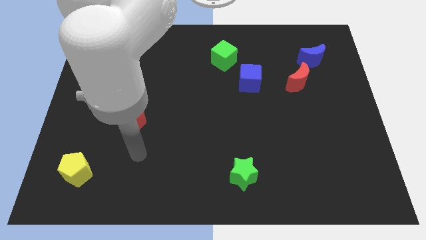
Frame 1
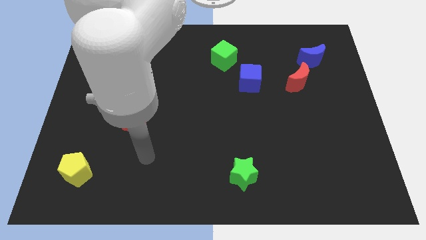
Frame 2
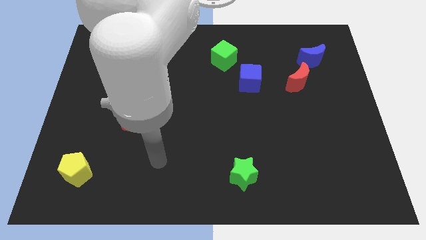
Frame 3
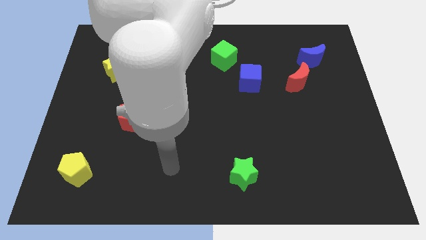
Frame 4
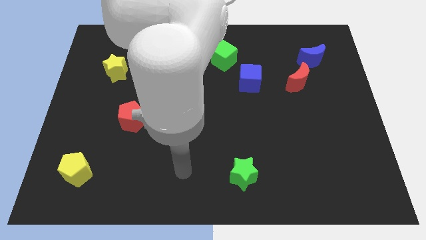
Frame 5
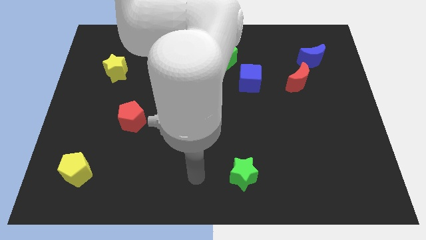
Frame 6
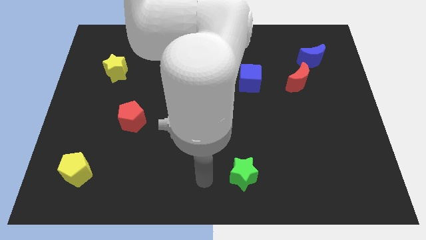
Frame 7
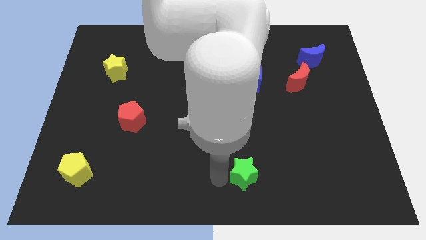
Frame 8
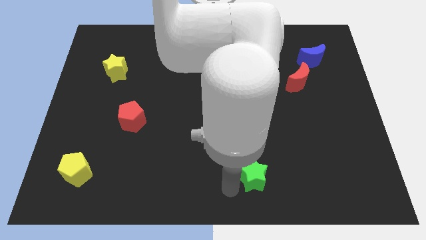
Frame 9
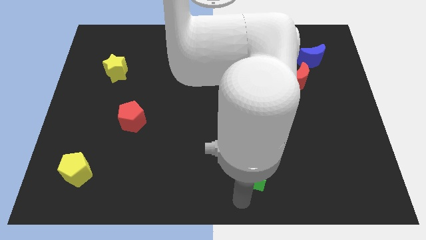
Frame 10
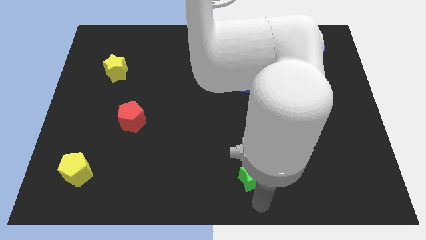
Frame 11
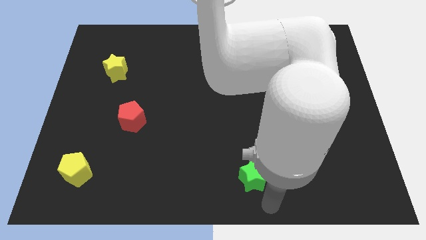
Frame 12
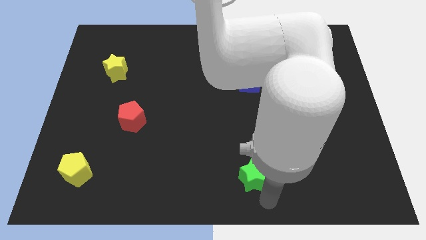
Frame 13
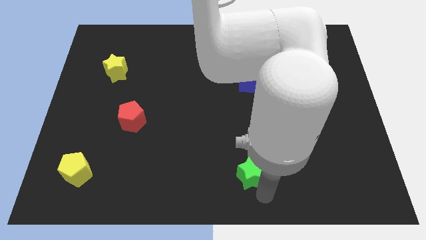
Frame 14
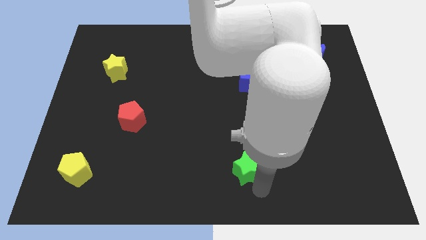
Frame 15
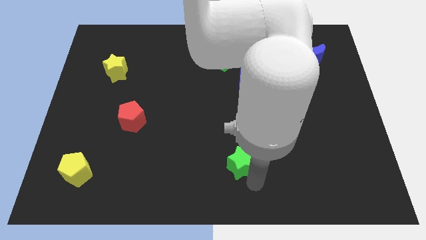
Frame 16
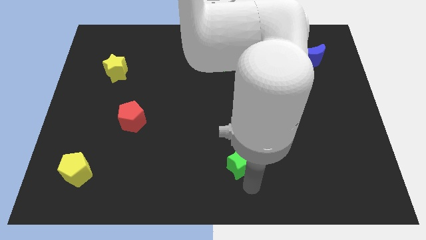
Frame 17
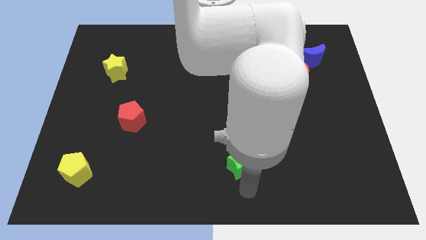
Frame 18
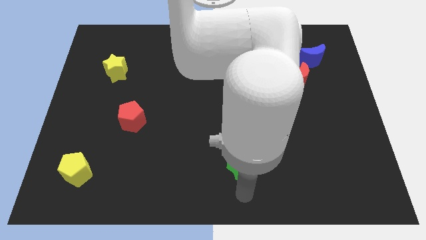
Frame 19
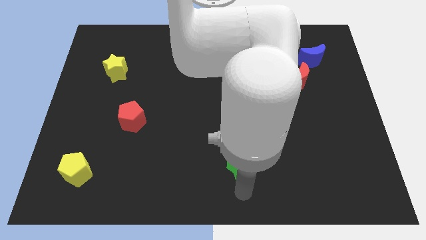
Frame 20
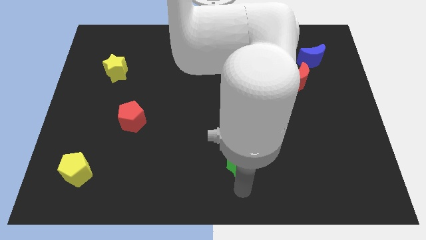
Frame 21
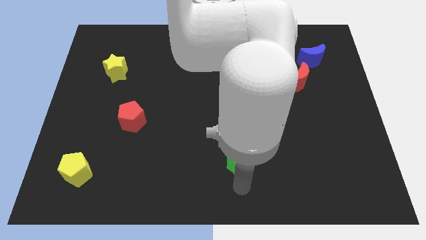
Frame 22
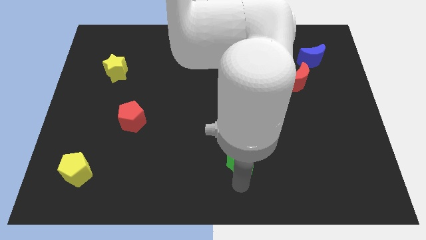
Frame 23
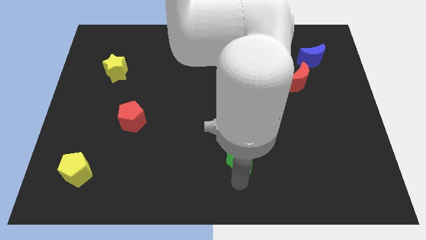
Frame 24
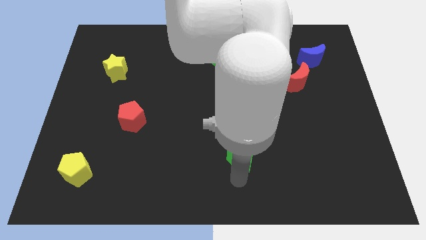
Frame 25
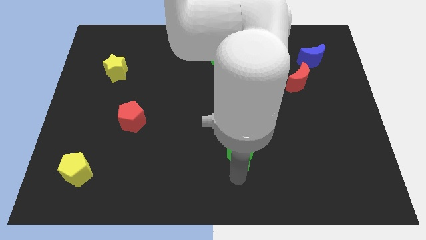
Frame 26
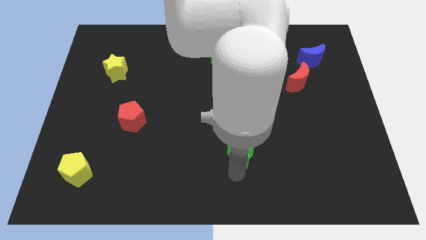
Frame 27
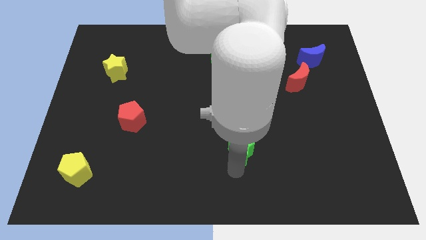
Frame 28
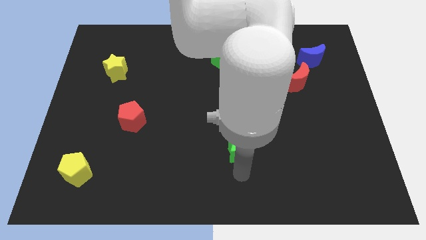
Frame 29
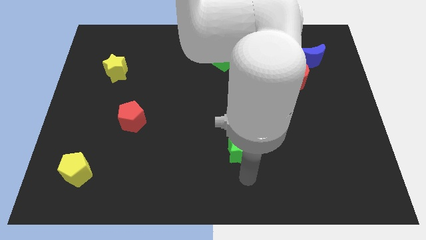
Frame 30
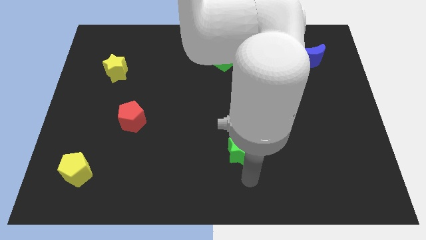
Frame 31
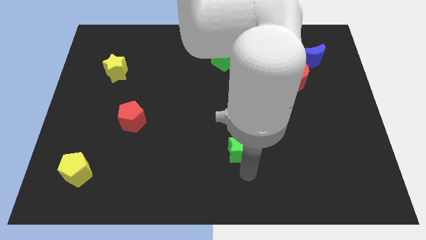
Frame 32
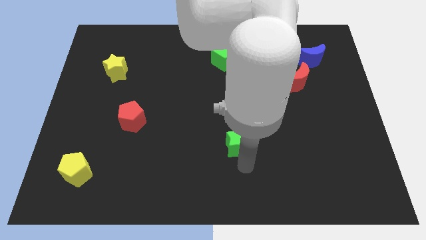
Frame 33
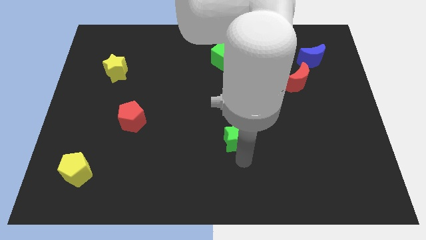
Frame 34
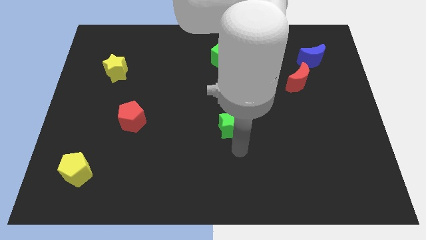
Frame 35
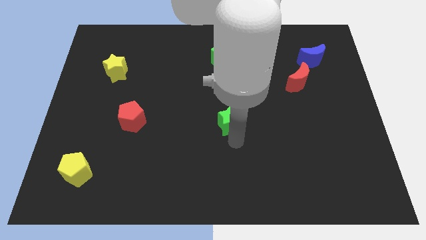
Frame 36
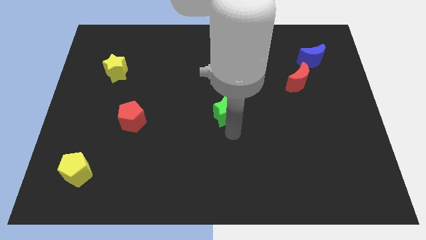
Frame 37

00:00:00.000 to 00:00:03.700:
slide the green star to the bottom left side of the blue cube

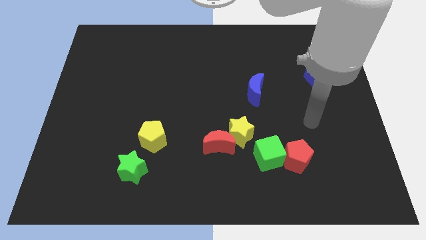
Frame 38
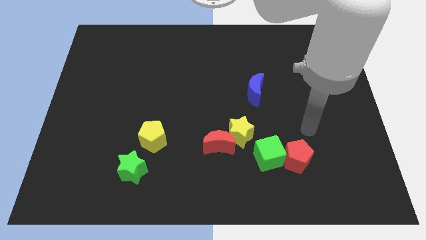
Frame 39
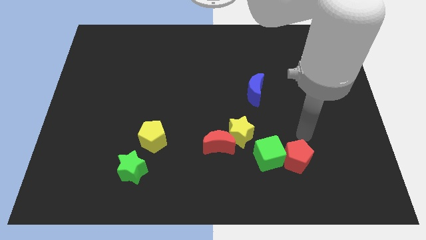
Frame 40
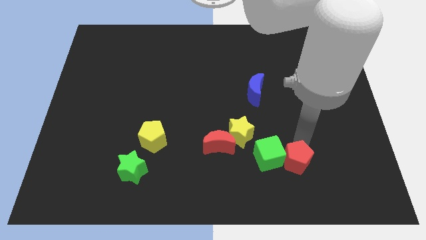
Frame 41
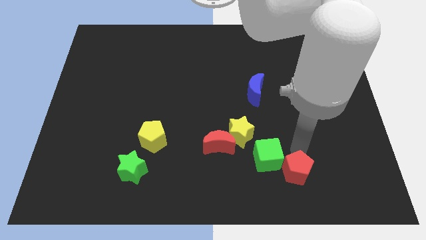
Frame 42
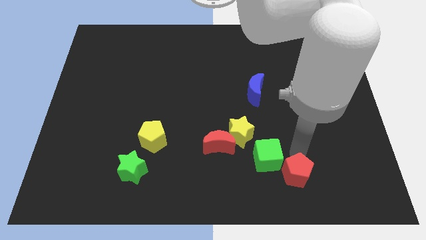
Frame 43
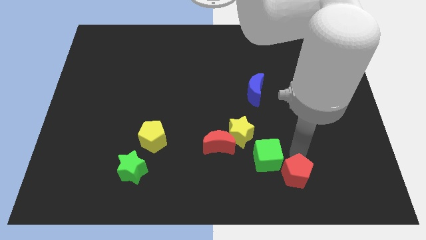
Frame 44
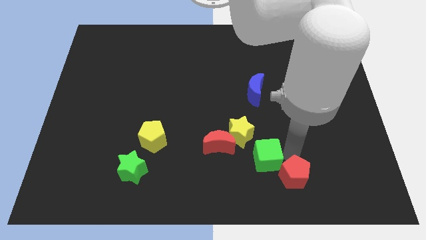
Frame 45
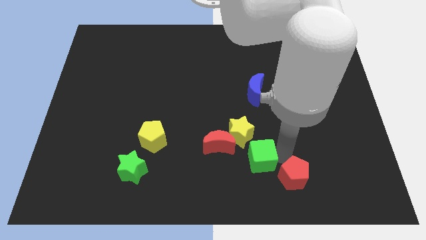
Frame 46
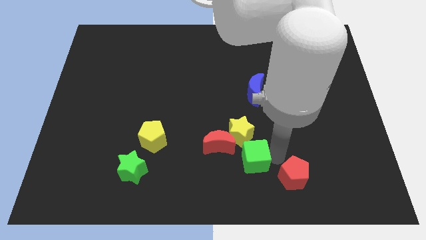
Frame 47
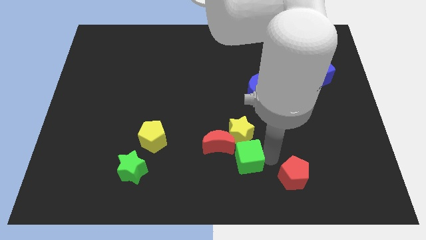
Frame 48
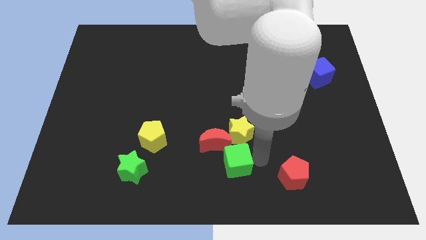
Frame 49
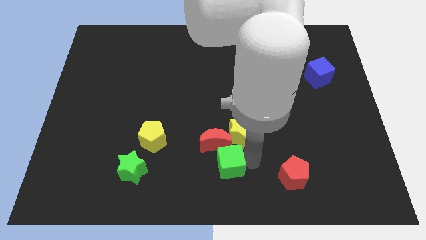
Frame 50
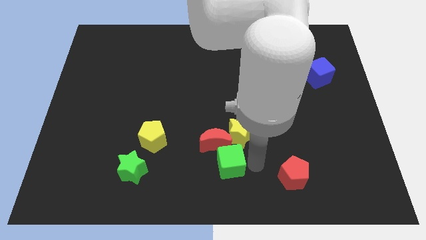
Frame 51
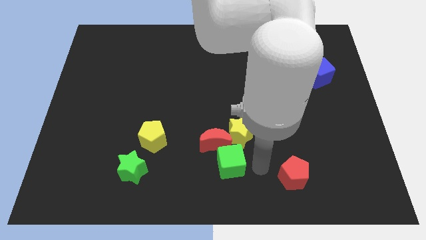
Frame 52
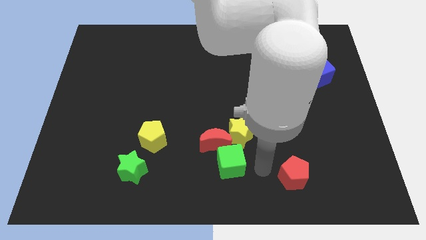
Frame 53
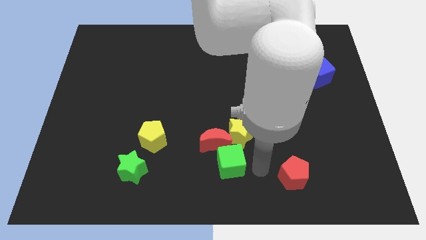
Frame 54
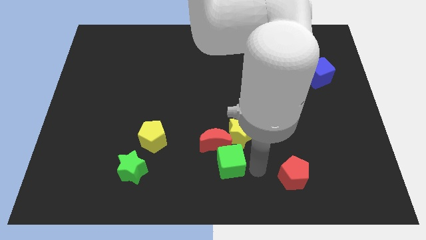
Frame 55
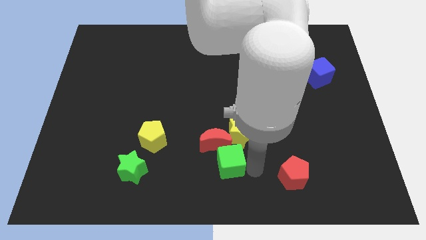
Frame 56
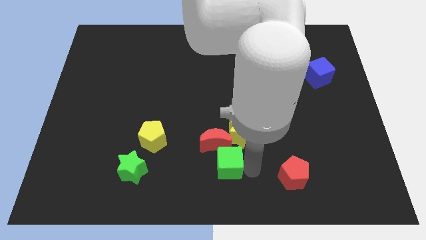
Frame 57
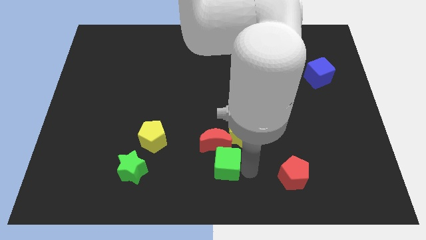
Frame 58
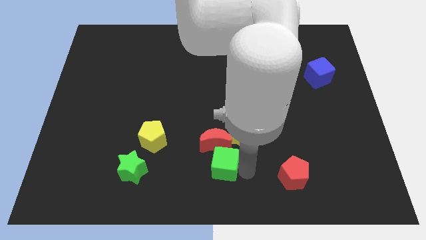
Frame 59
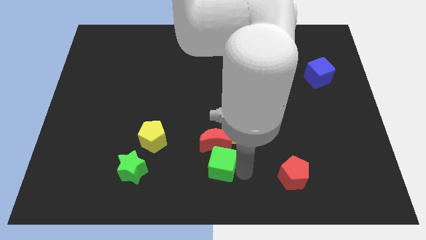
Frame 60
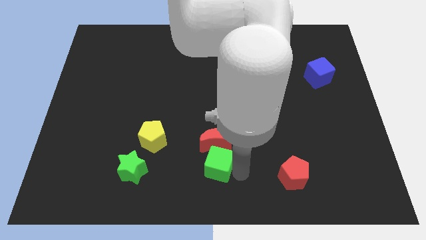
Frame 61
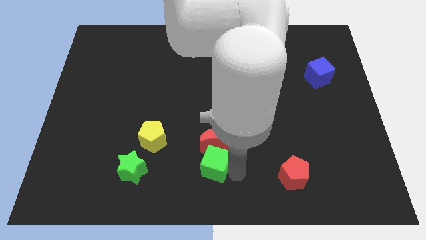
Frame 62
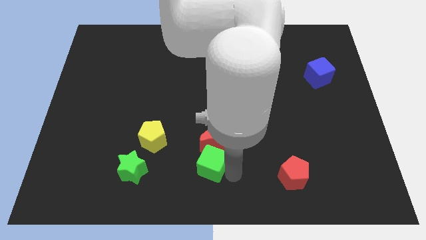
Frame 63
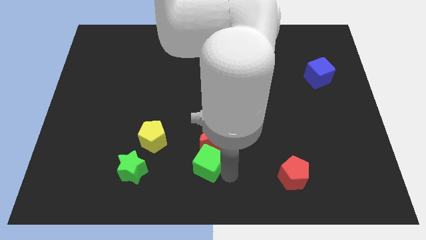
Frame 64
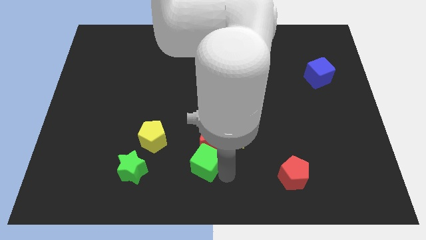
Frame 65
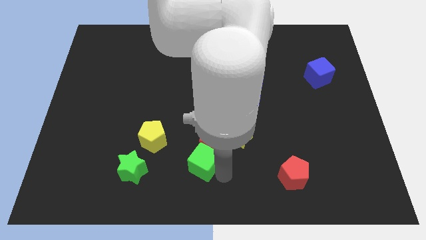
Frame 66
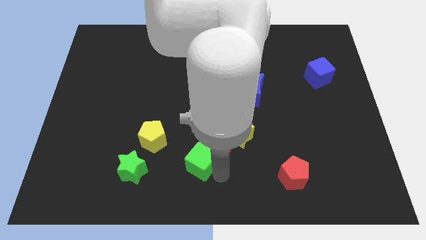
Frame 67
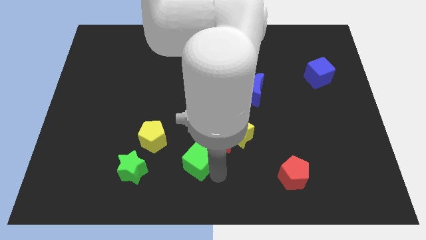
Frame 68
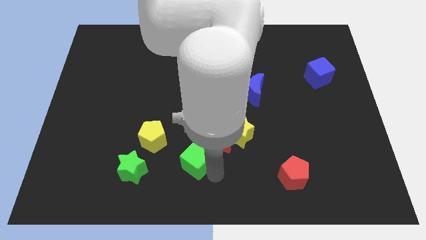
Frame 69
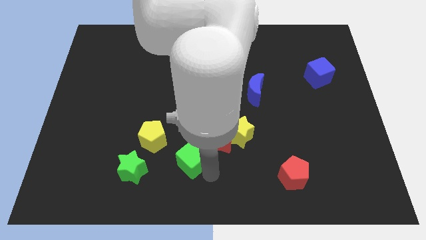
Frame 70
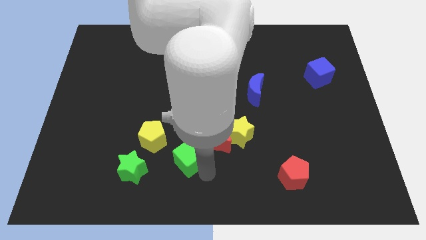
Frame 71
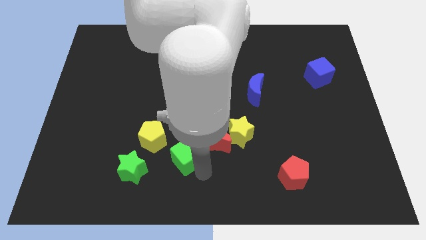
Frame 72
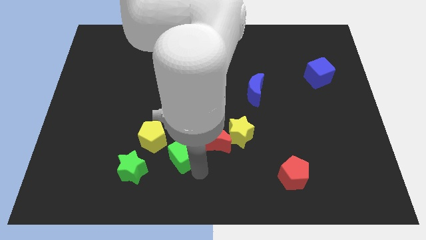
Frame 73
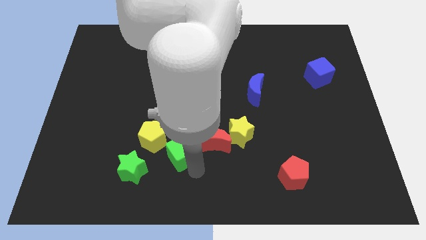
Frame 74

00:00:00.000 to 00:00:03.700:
put the green cube to the top right of the green star

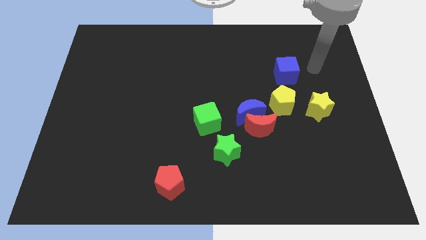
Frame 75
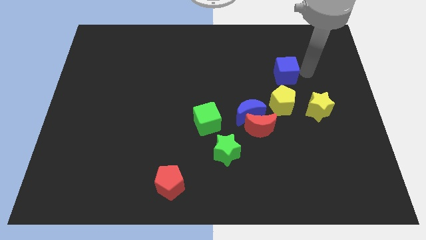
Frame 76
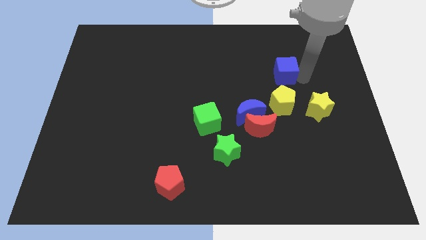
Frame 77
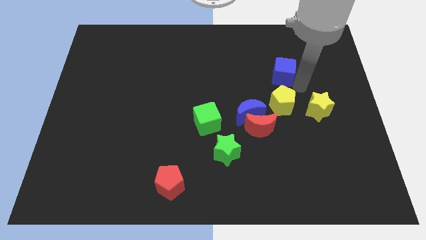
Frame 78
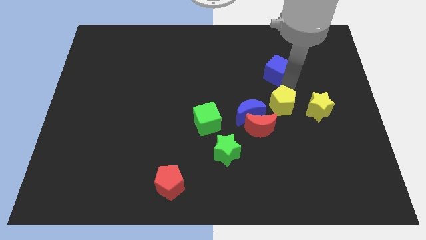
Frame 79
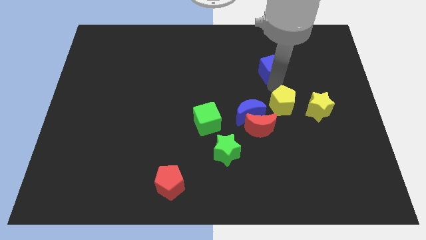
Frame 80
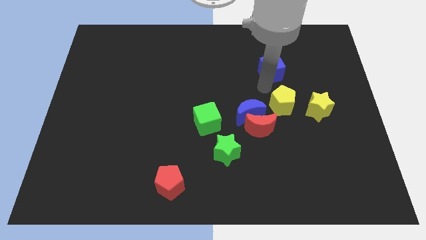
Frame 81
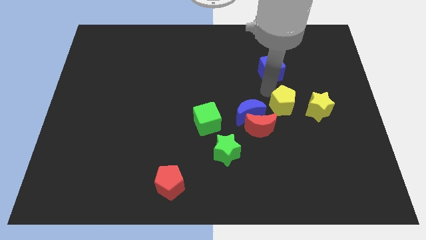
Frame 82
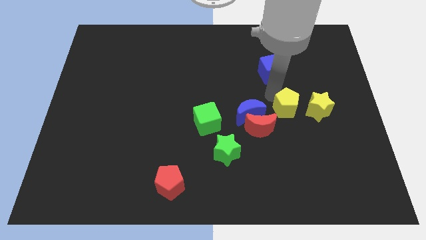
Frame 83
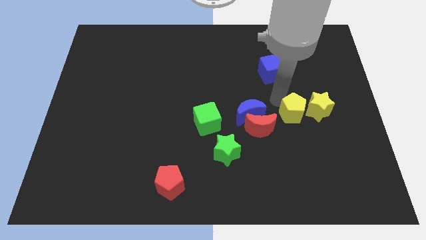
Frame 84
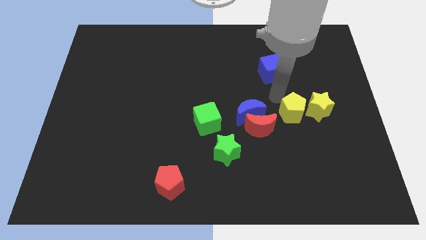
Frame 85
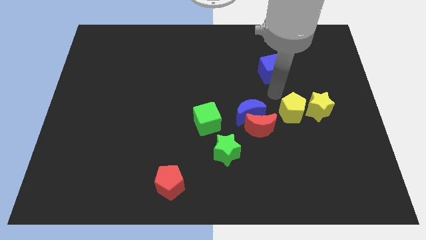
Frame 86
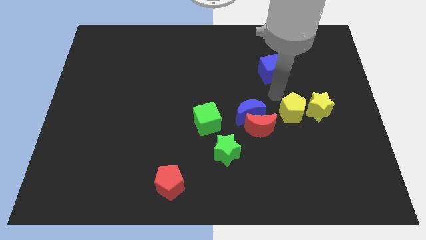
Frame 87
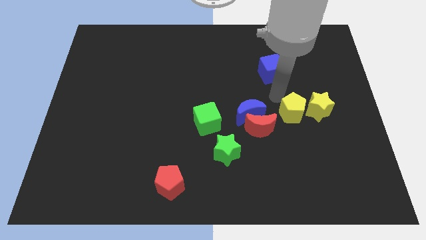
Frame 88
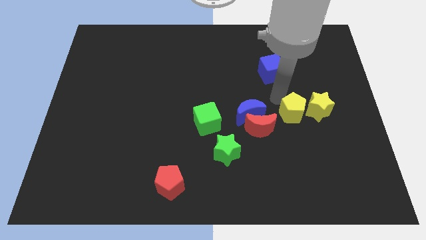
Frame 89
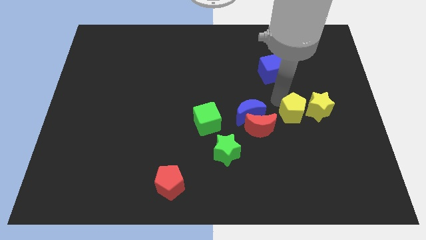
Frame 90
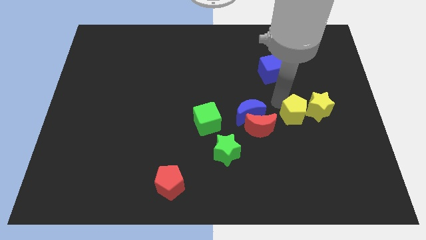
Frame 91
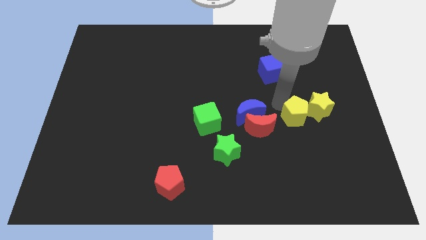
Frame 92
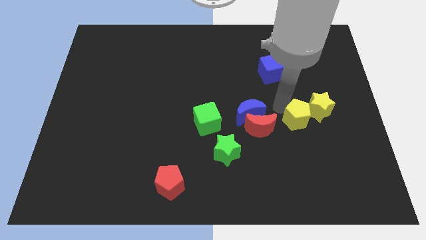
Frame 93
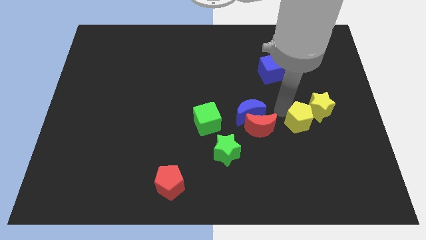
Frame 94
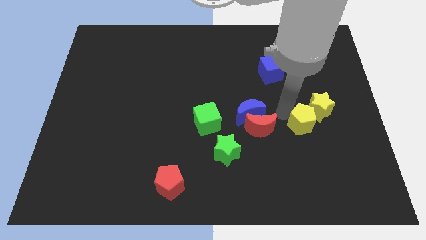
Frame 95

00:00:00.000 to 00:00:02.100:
move the yellow pentagon to the bottom side of the yellow star
